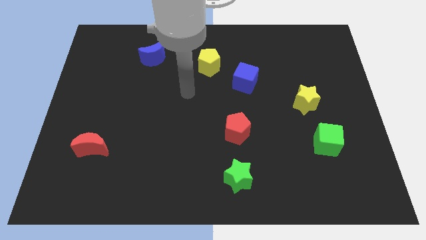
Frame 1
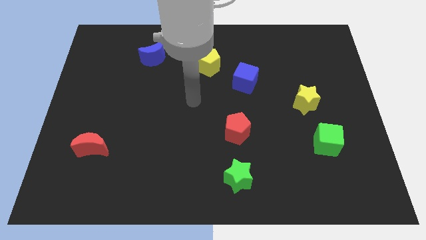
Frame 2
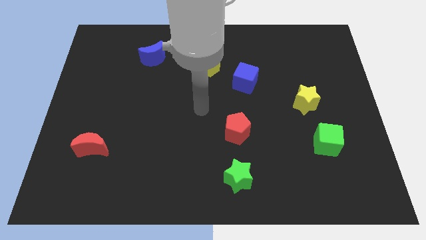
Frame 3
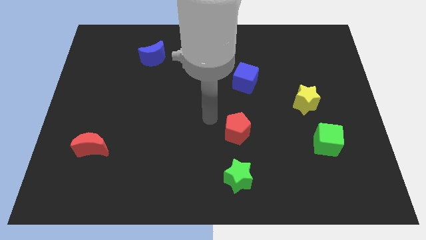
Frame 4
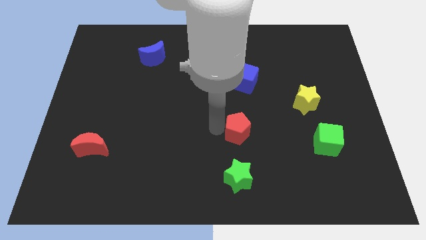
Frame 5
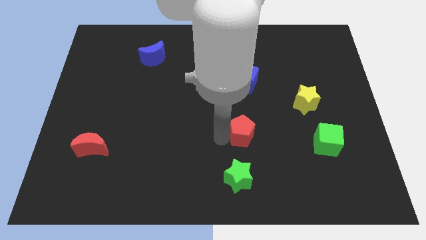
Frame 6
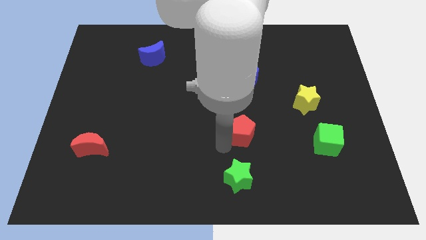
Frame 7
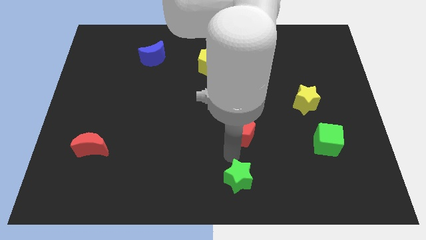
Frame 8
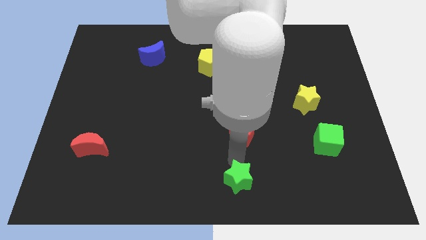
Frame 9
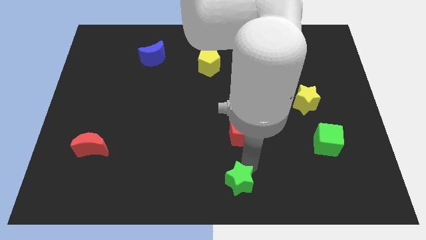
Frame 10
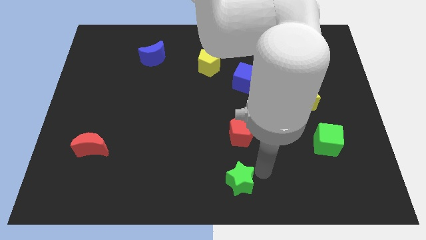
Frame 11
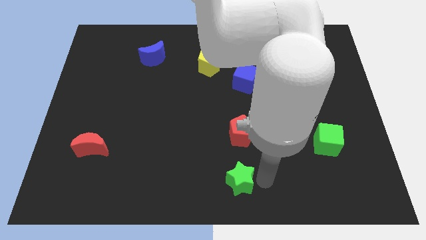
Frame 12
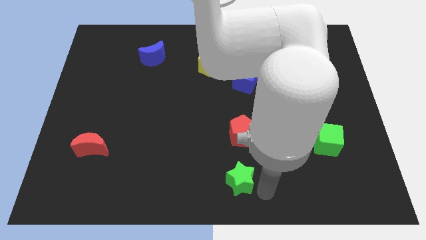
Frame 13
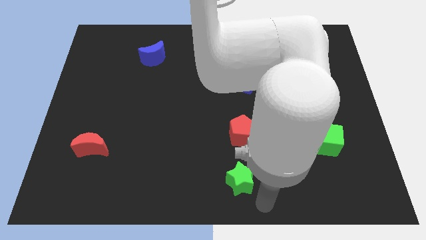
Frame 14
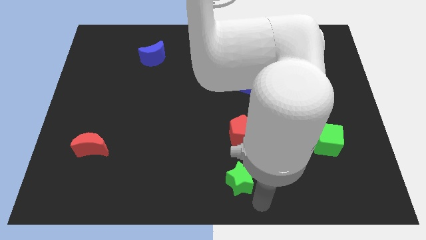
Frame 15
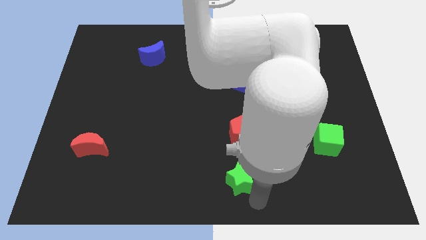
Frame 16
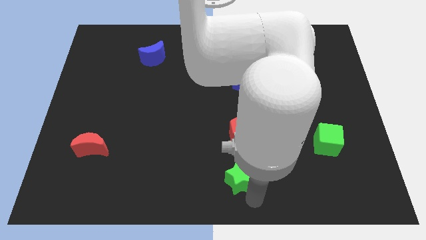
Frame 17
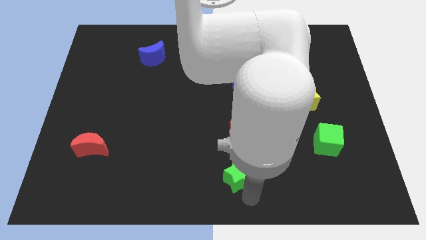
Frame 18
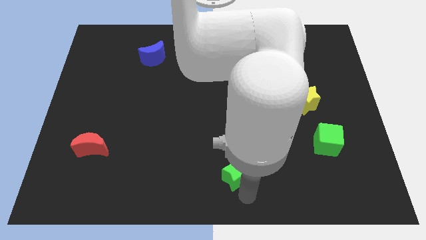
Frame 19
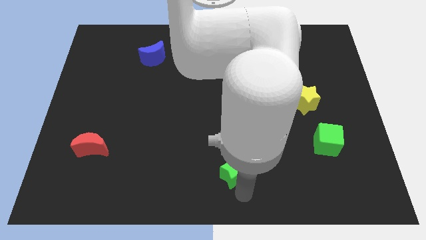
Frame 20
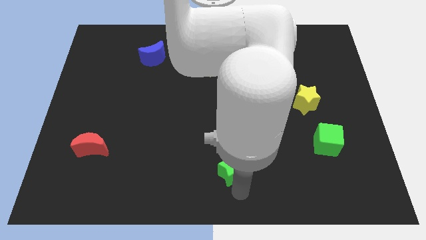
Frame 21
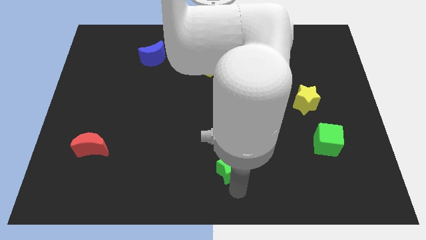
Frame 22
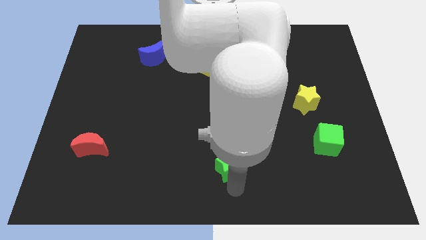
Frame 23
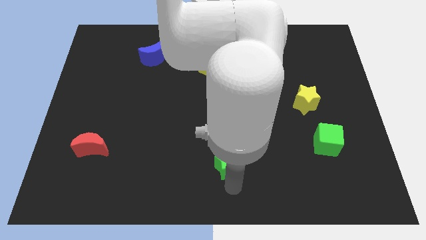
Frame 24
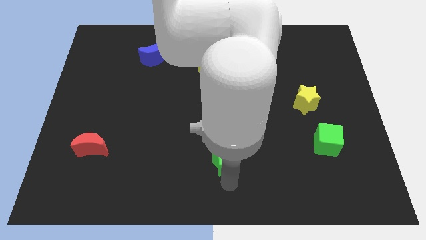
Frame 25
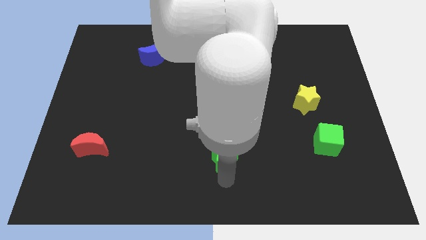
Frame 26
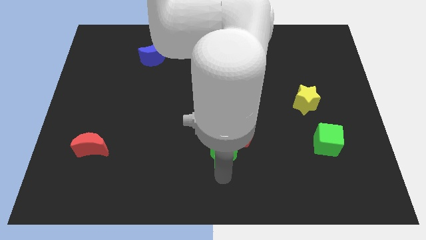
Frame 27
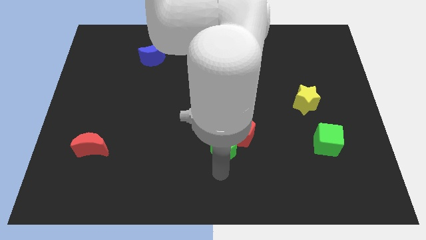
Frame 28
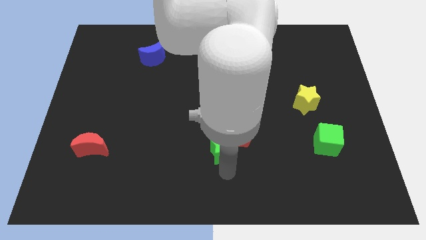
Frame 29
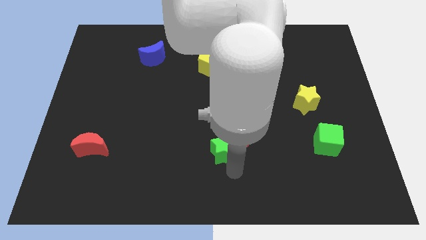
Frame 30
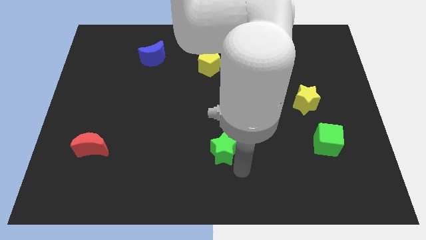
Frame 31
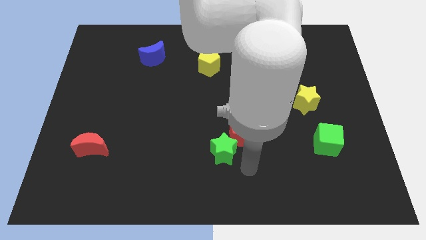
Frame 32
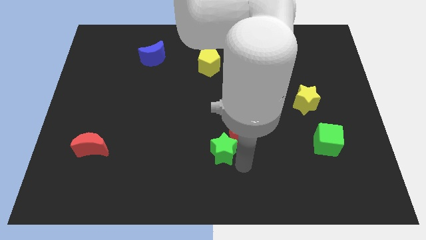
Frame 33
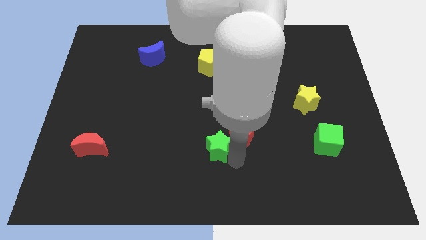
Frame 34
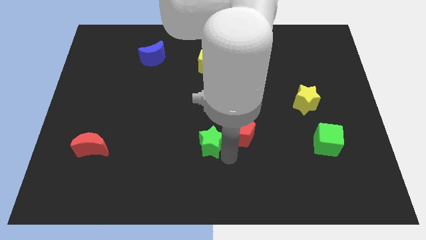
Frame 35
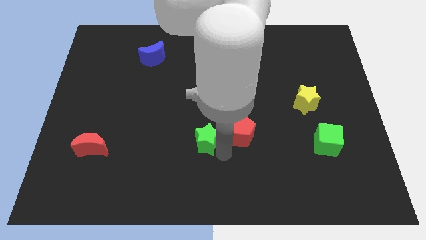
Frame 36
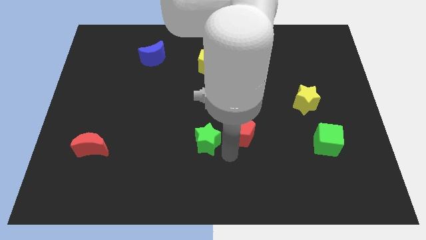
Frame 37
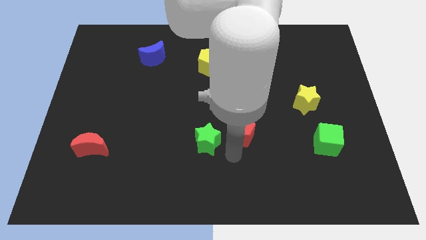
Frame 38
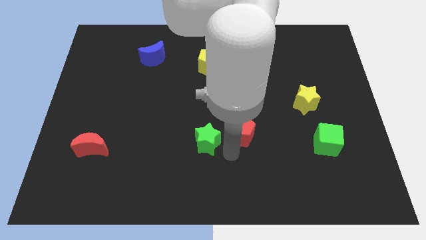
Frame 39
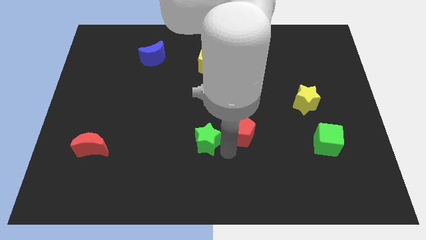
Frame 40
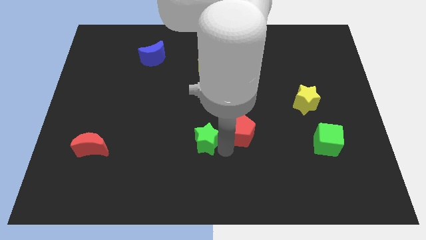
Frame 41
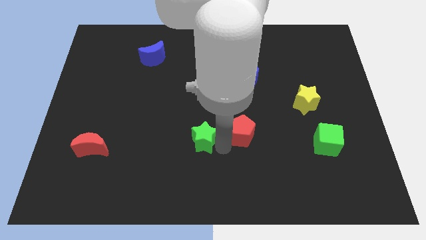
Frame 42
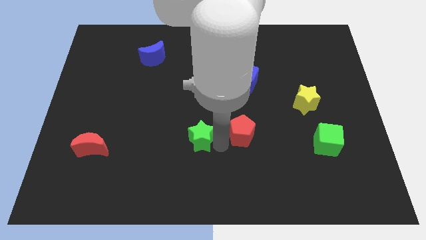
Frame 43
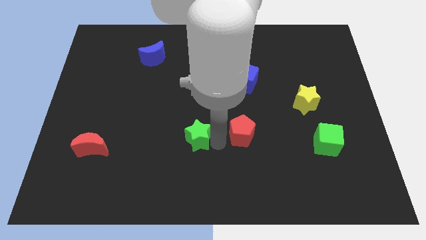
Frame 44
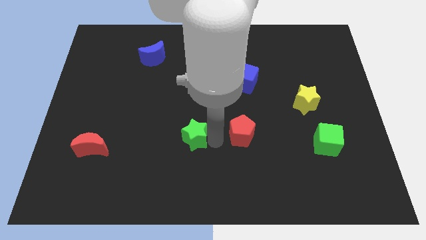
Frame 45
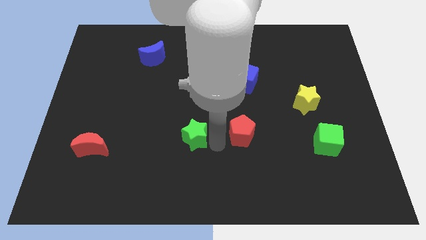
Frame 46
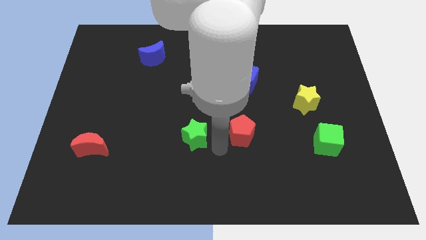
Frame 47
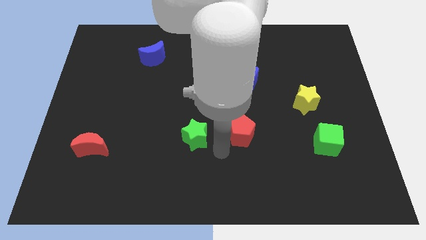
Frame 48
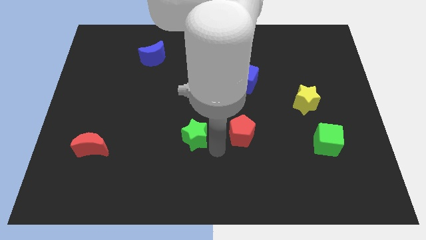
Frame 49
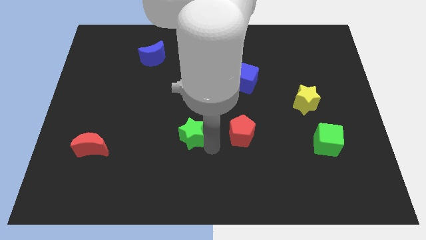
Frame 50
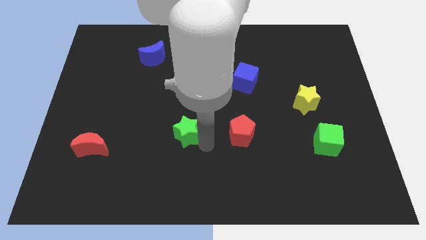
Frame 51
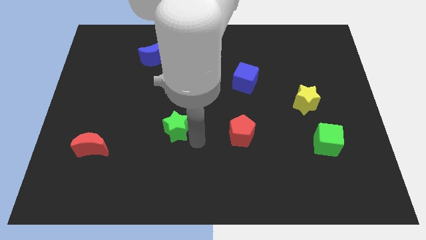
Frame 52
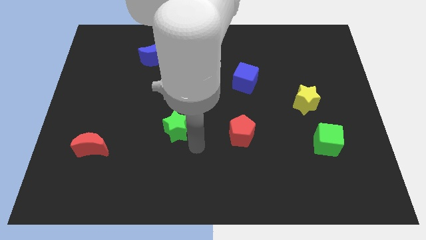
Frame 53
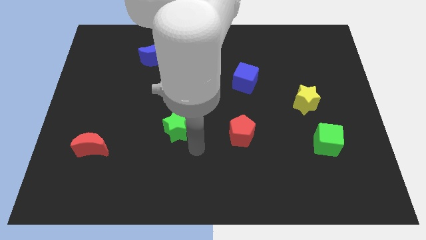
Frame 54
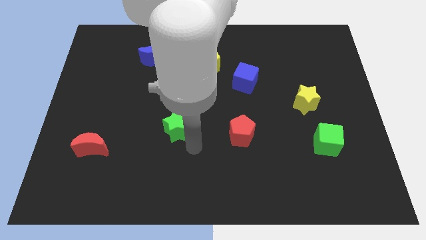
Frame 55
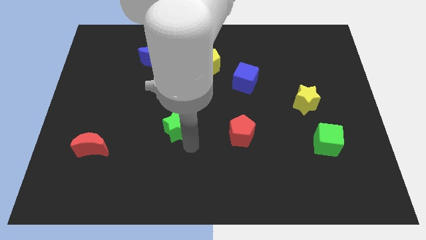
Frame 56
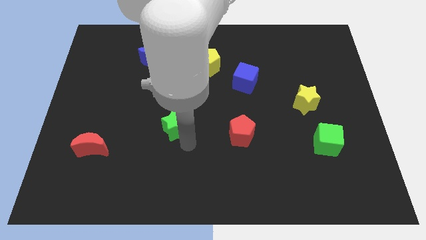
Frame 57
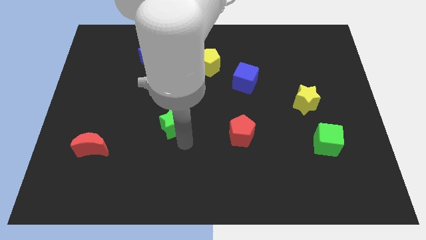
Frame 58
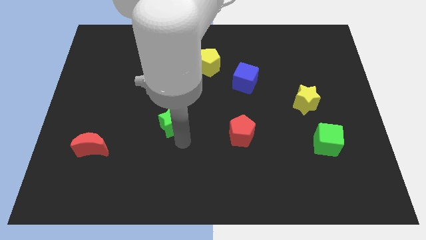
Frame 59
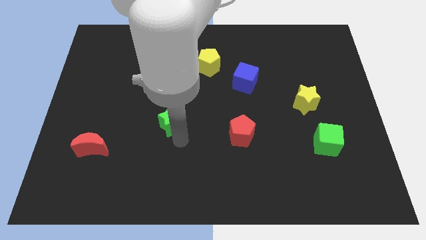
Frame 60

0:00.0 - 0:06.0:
slide the green star upwards and then left

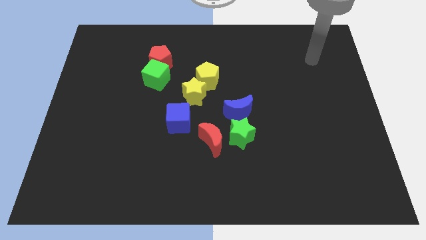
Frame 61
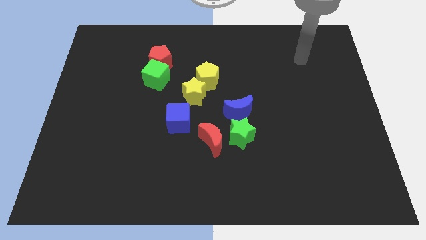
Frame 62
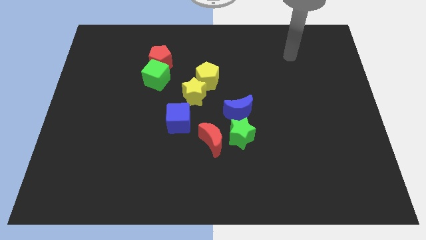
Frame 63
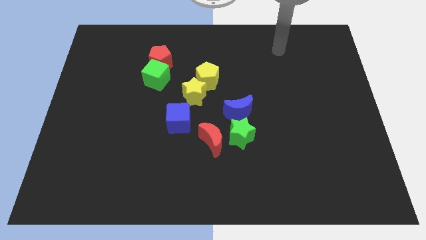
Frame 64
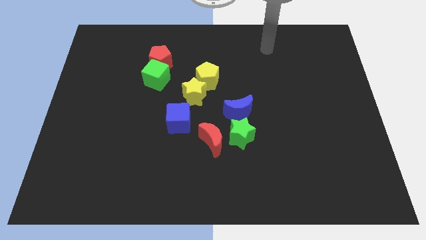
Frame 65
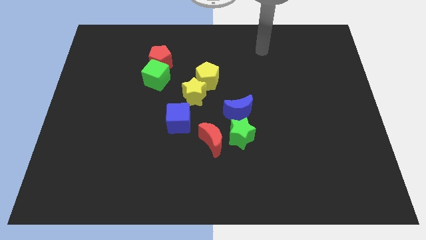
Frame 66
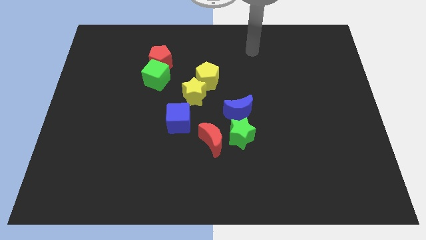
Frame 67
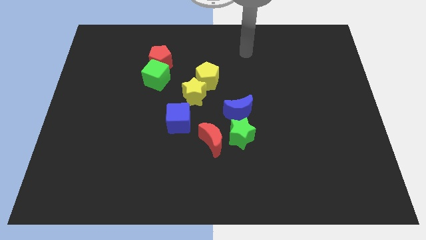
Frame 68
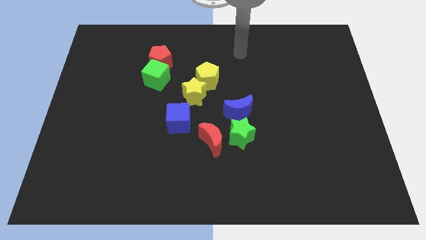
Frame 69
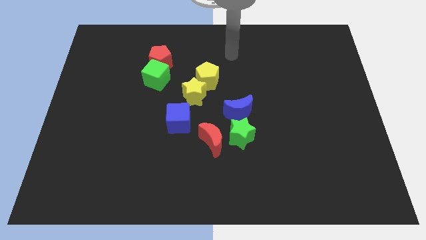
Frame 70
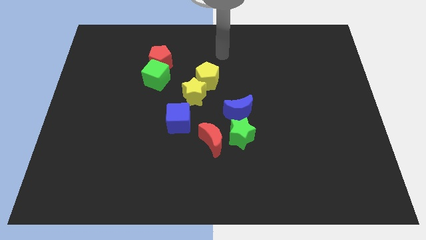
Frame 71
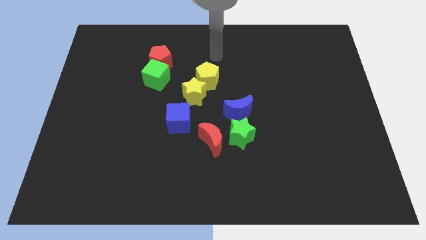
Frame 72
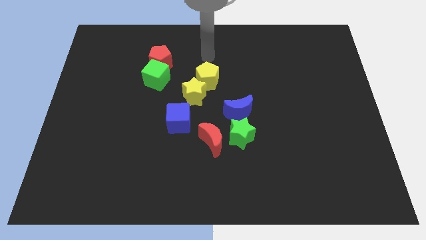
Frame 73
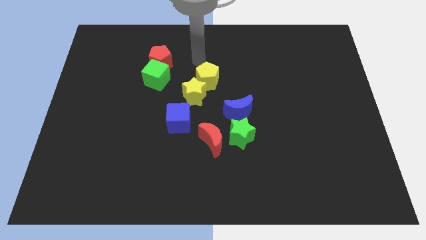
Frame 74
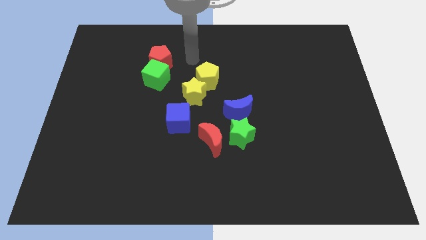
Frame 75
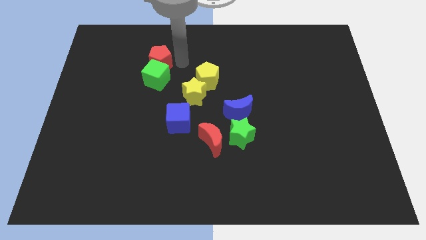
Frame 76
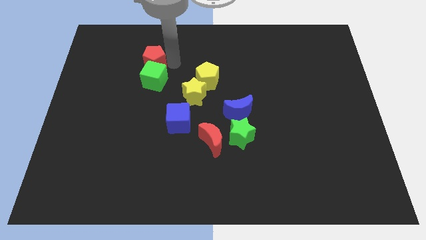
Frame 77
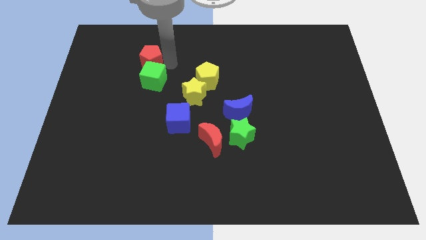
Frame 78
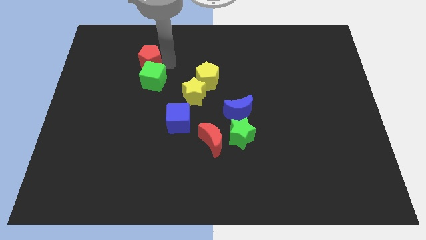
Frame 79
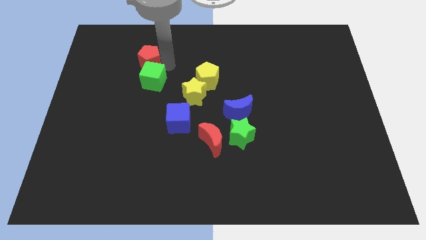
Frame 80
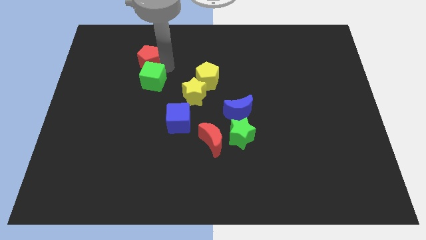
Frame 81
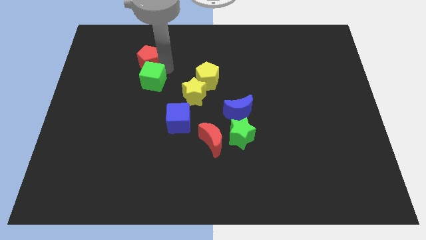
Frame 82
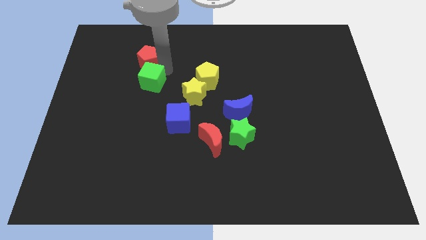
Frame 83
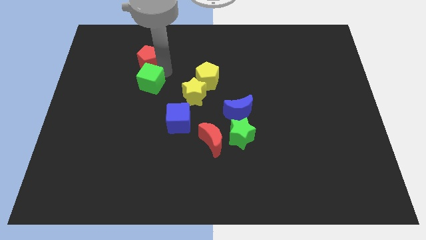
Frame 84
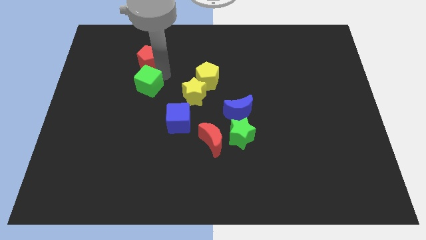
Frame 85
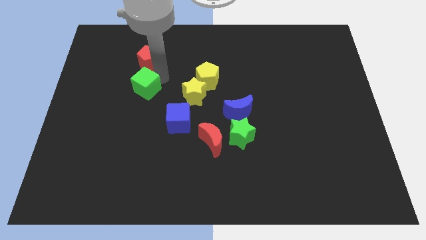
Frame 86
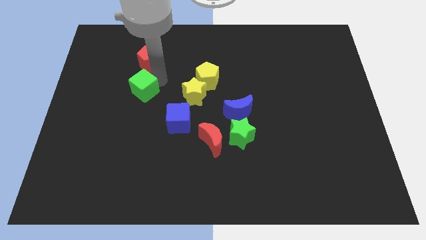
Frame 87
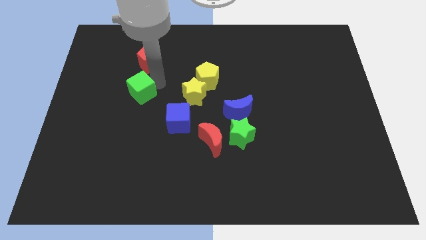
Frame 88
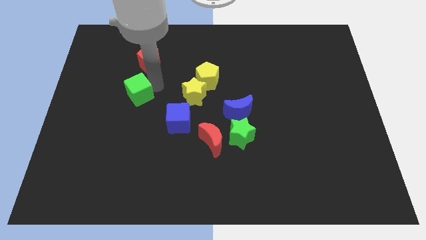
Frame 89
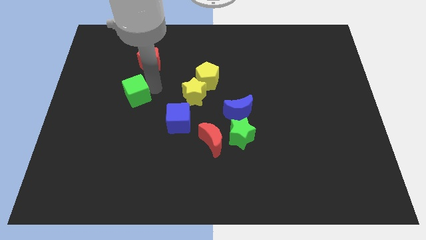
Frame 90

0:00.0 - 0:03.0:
slightly push the green cube diagonally down and to the left
